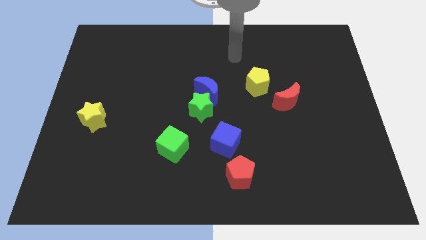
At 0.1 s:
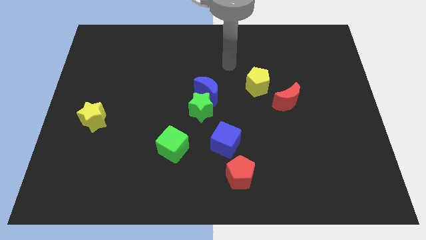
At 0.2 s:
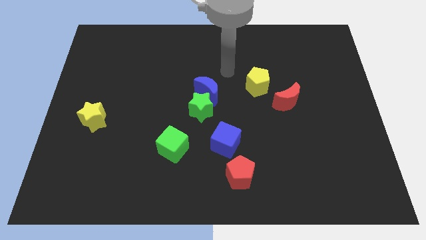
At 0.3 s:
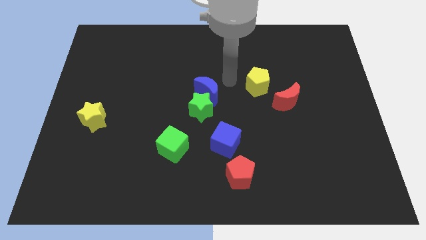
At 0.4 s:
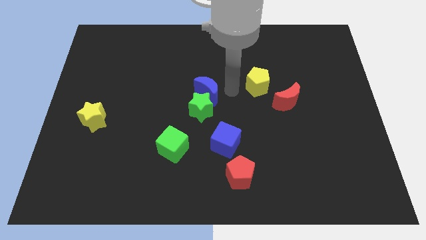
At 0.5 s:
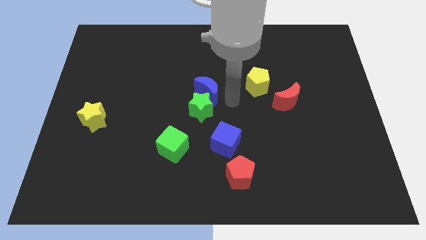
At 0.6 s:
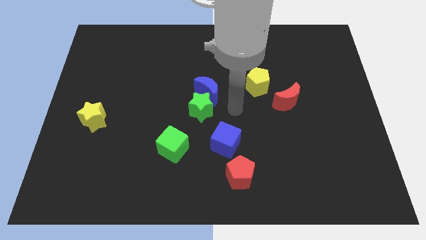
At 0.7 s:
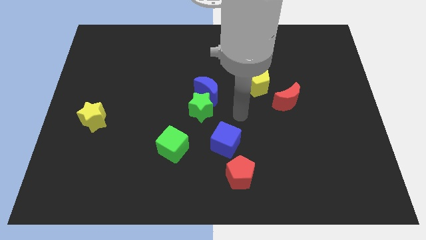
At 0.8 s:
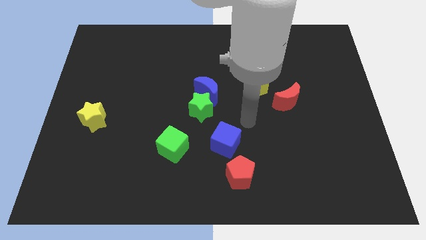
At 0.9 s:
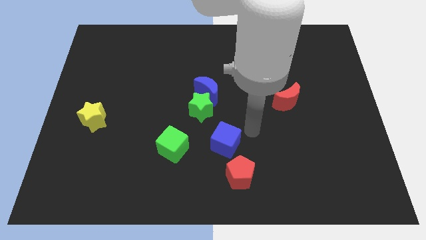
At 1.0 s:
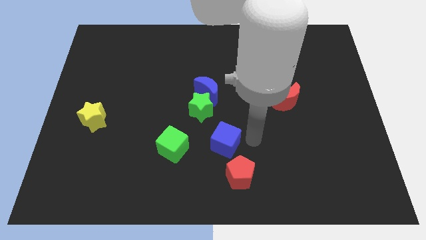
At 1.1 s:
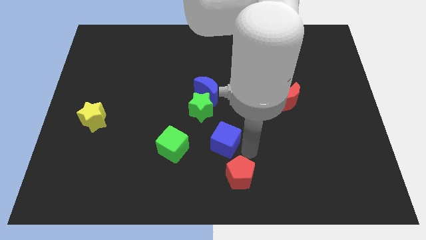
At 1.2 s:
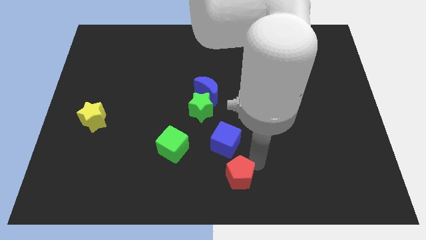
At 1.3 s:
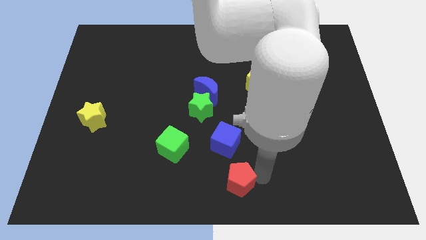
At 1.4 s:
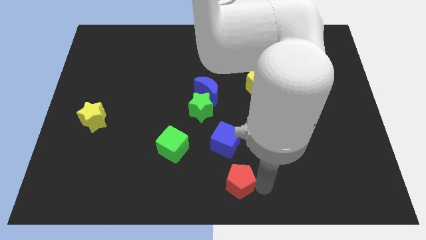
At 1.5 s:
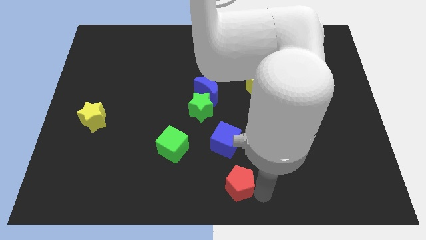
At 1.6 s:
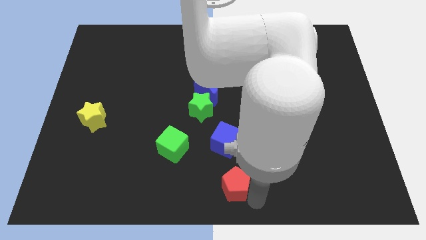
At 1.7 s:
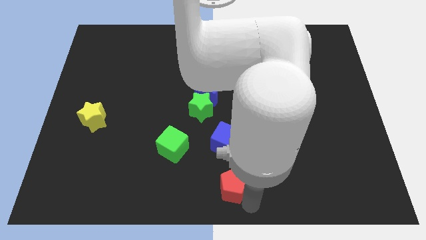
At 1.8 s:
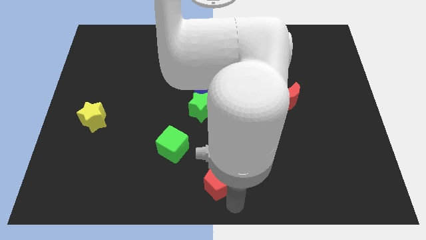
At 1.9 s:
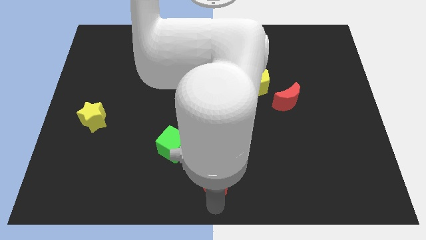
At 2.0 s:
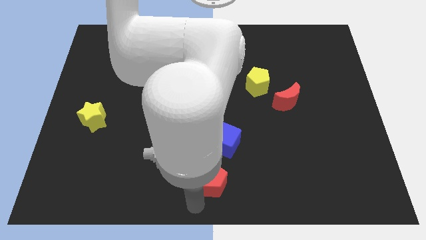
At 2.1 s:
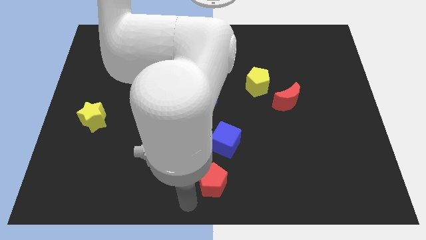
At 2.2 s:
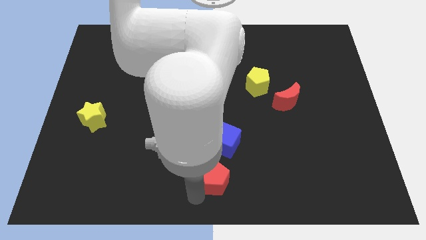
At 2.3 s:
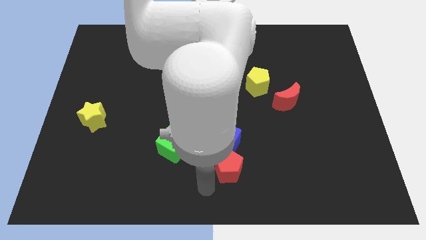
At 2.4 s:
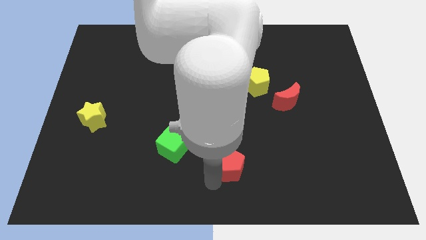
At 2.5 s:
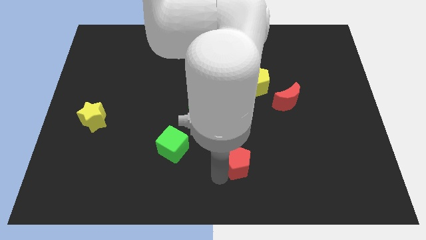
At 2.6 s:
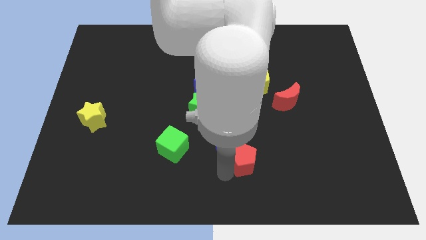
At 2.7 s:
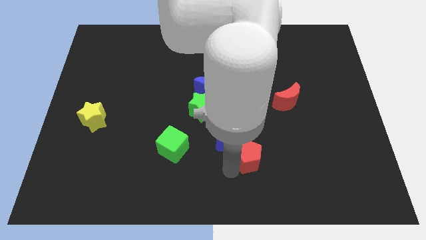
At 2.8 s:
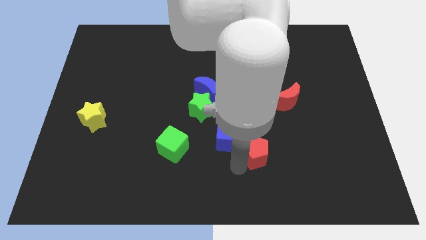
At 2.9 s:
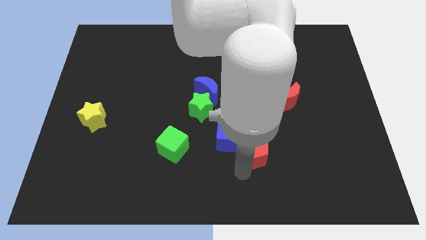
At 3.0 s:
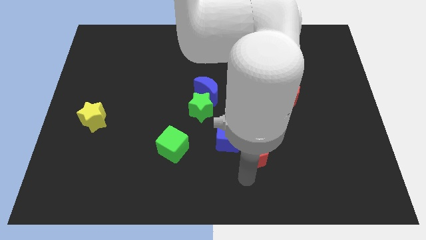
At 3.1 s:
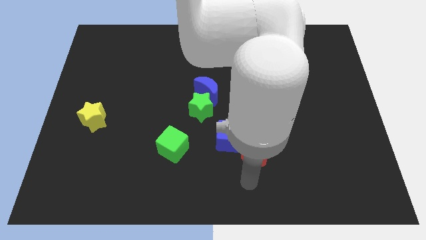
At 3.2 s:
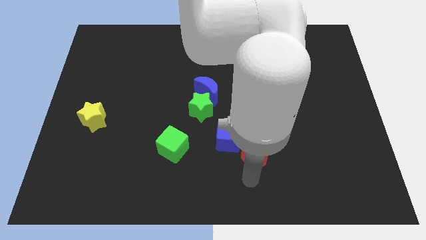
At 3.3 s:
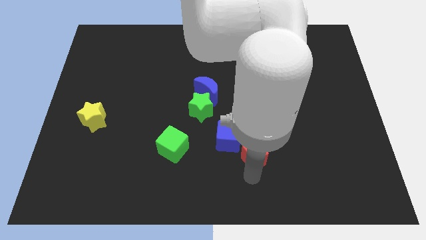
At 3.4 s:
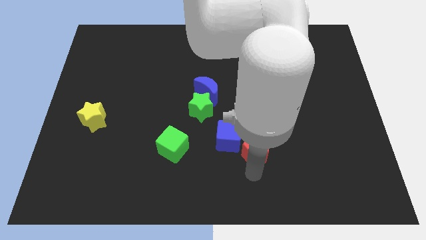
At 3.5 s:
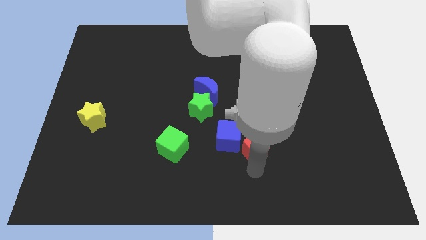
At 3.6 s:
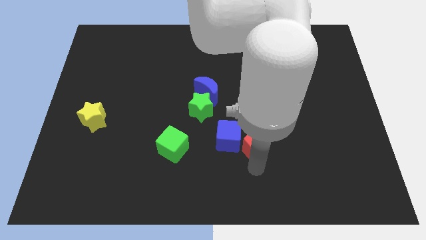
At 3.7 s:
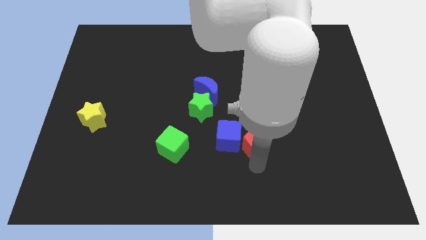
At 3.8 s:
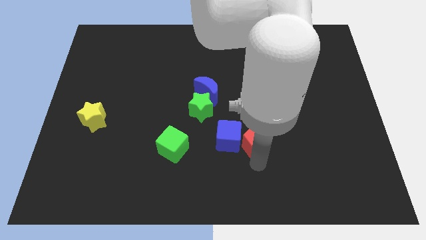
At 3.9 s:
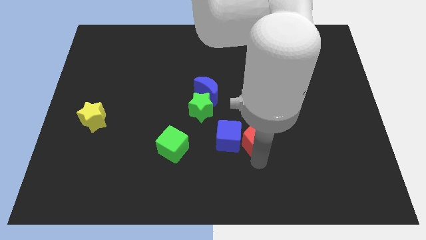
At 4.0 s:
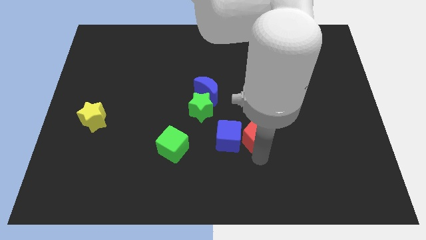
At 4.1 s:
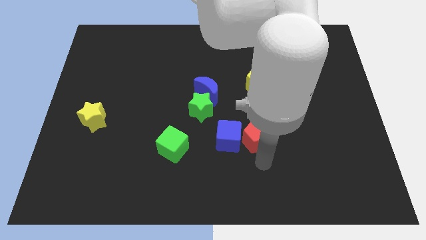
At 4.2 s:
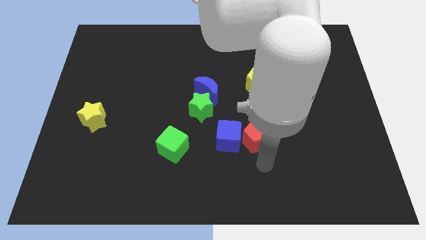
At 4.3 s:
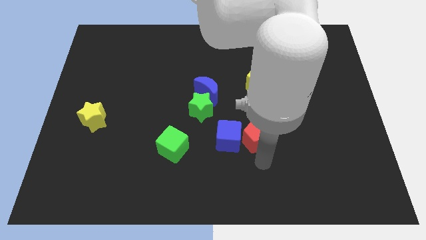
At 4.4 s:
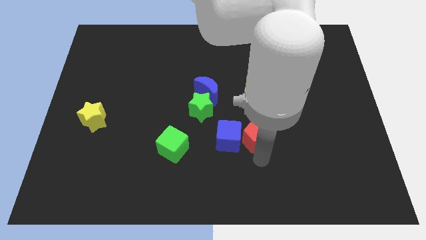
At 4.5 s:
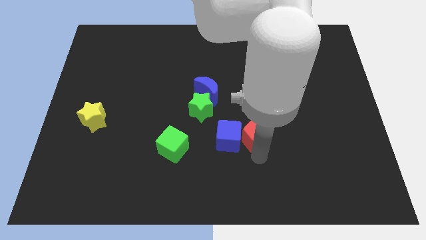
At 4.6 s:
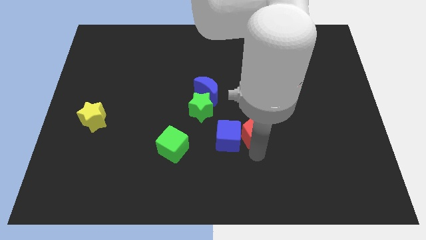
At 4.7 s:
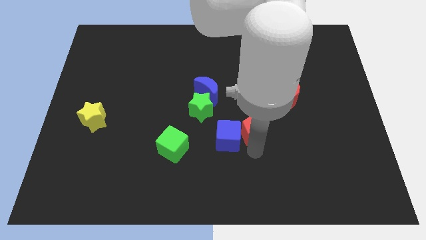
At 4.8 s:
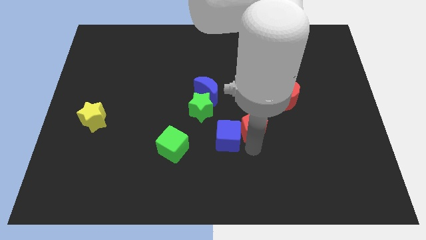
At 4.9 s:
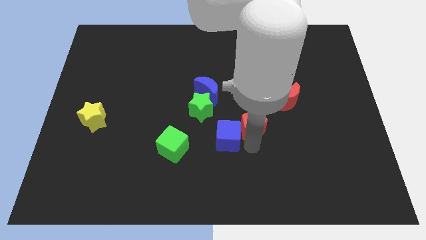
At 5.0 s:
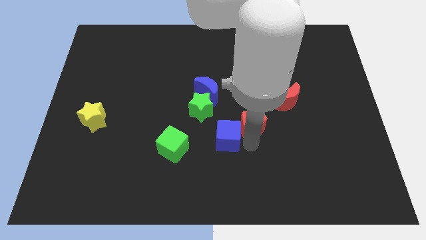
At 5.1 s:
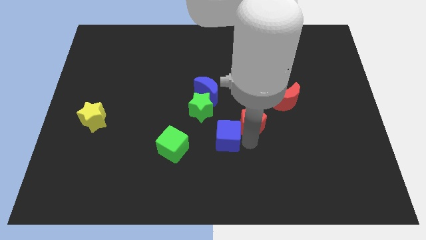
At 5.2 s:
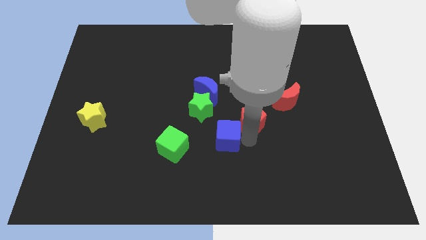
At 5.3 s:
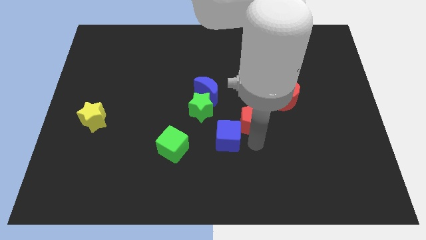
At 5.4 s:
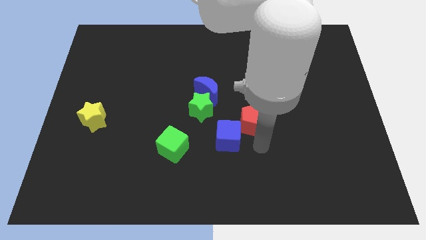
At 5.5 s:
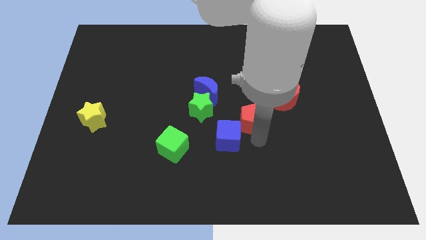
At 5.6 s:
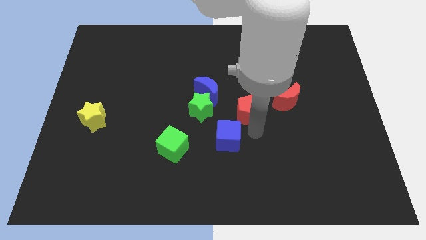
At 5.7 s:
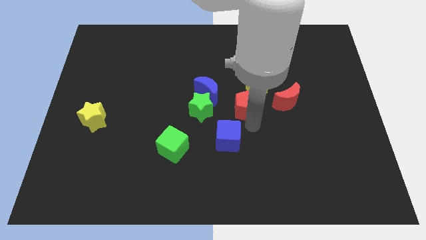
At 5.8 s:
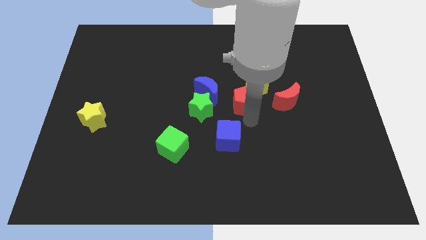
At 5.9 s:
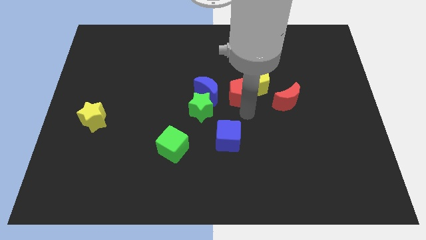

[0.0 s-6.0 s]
move the red pentagon upwards

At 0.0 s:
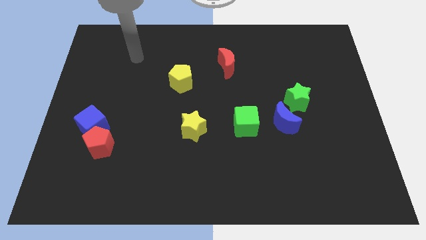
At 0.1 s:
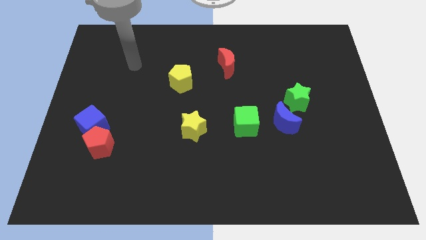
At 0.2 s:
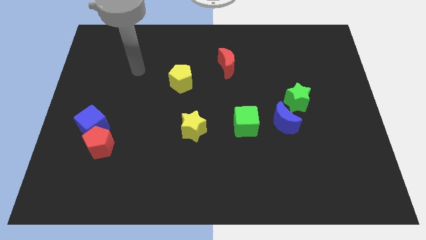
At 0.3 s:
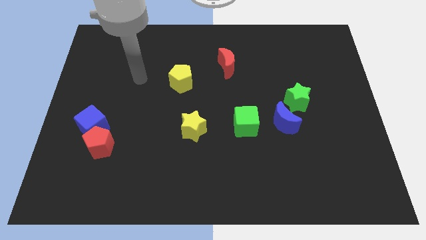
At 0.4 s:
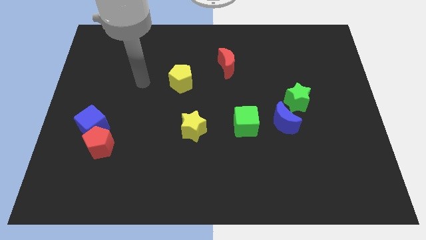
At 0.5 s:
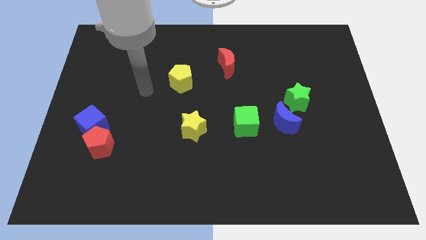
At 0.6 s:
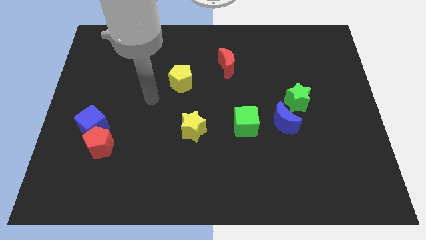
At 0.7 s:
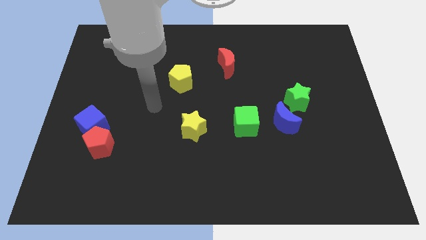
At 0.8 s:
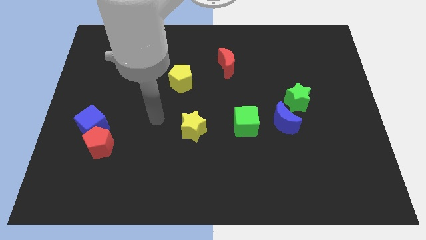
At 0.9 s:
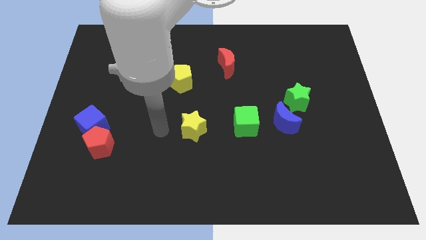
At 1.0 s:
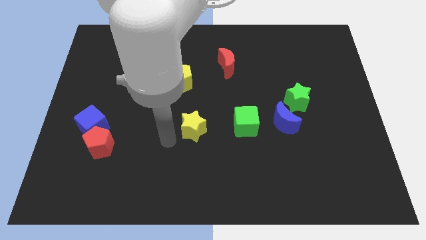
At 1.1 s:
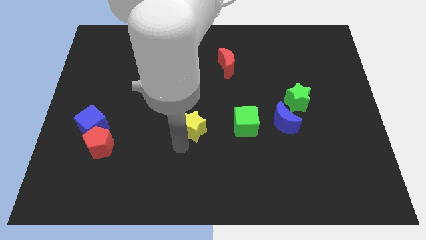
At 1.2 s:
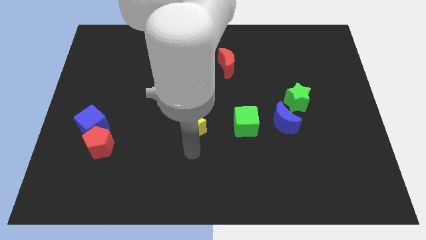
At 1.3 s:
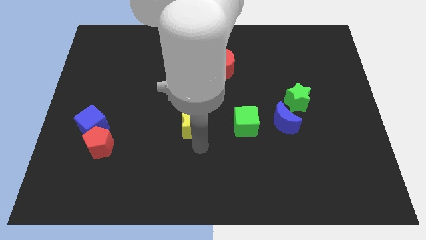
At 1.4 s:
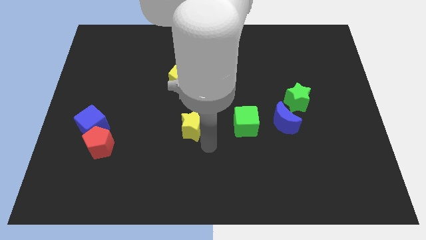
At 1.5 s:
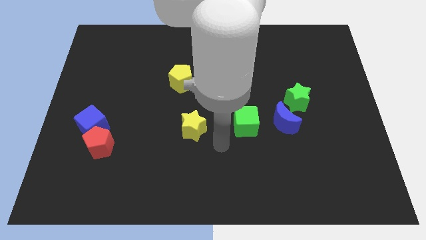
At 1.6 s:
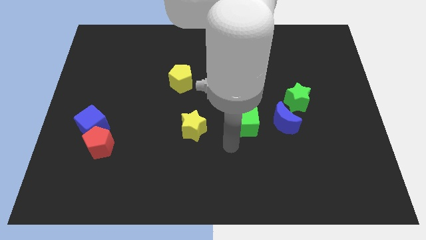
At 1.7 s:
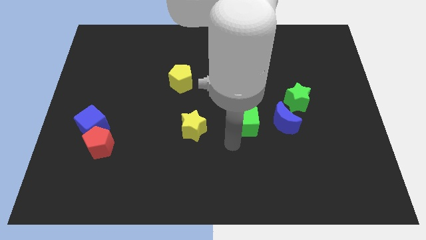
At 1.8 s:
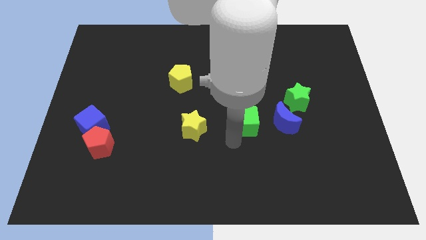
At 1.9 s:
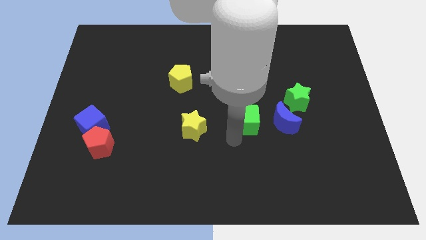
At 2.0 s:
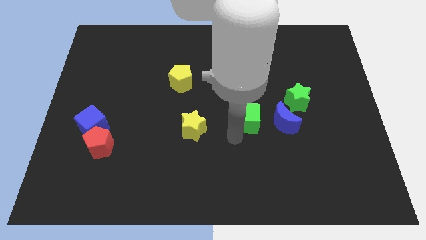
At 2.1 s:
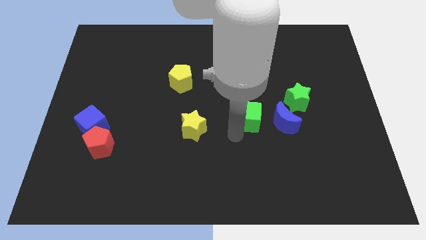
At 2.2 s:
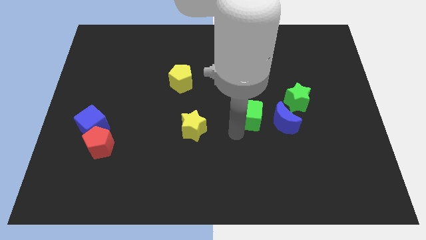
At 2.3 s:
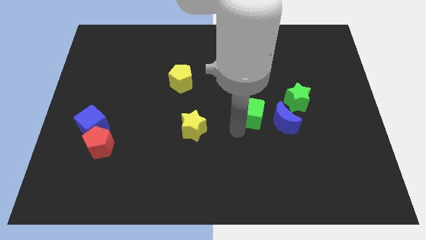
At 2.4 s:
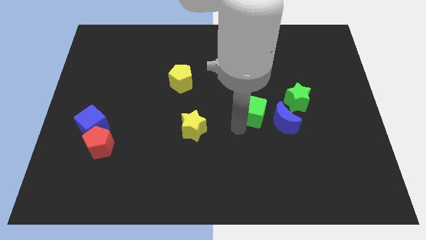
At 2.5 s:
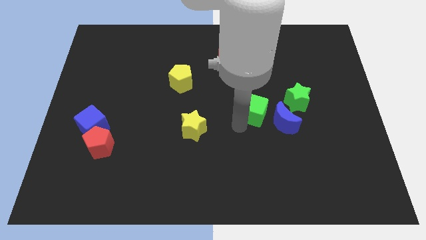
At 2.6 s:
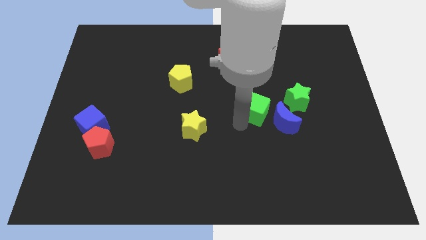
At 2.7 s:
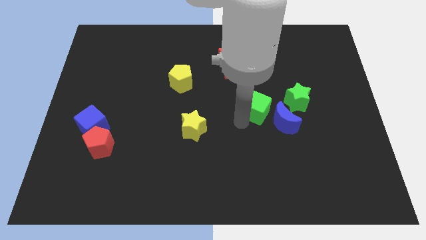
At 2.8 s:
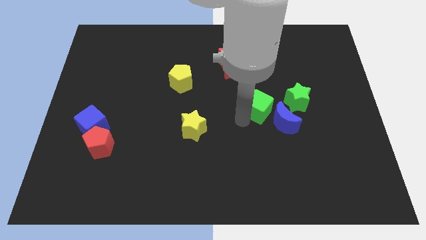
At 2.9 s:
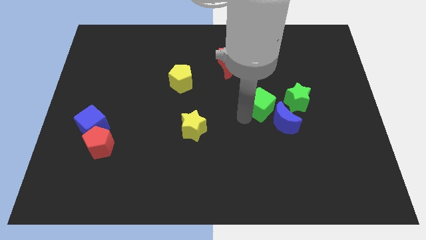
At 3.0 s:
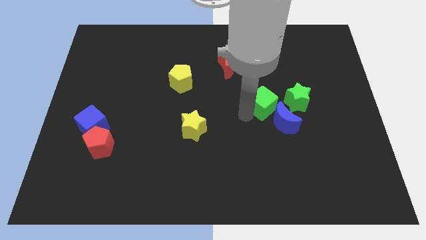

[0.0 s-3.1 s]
push the green cube a little diagonally up and to the right
